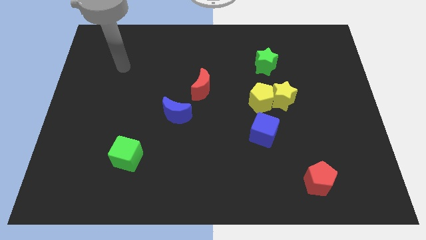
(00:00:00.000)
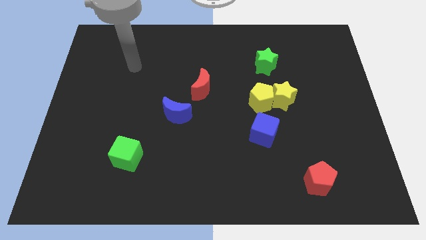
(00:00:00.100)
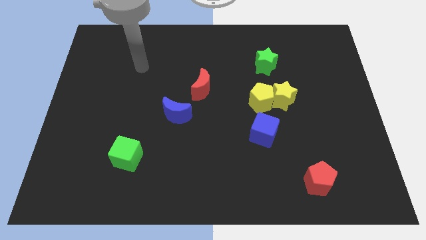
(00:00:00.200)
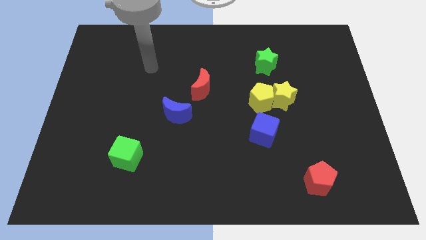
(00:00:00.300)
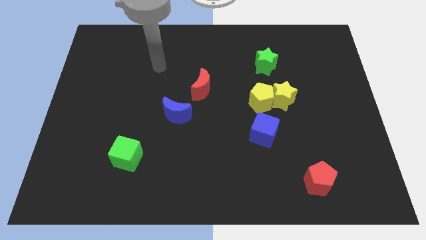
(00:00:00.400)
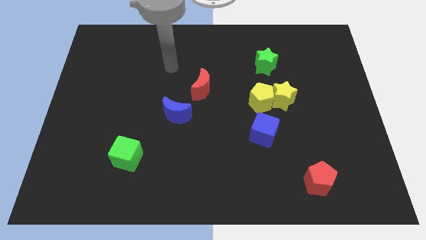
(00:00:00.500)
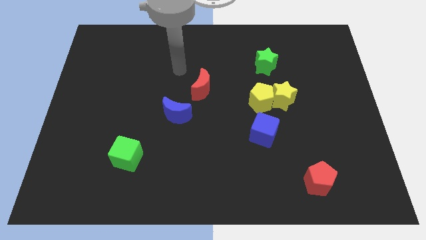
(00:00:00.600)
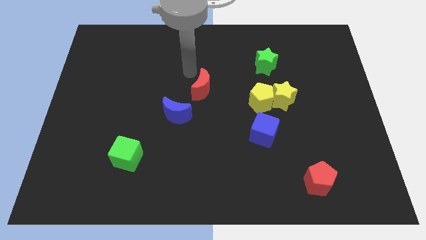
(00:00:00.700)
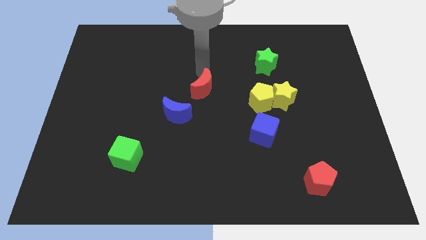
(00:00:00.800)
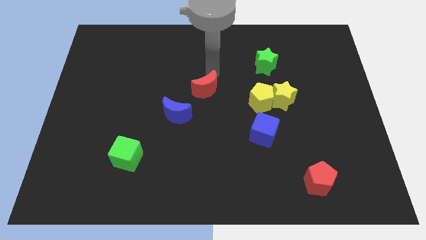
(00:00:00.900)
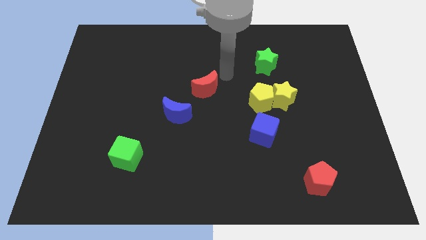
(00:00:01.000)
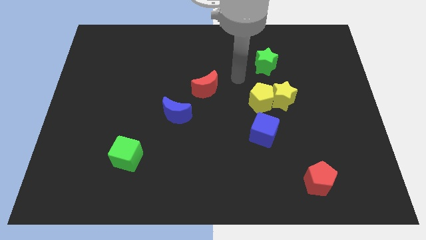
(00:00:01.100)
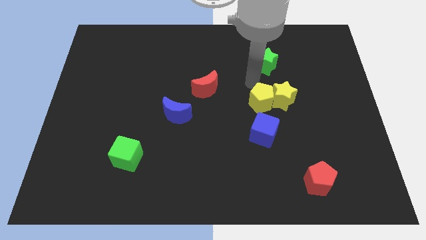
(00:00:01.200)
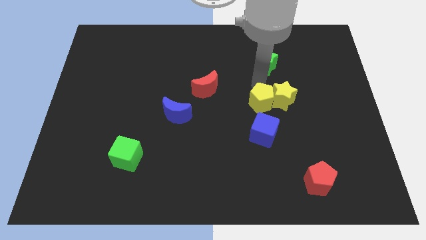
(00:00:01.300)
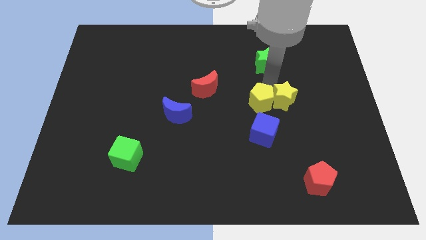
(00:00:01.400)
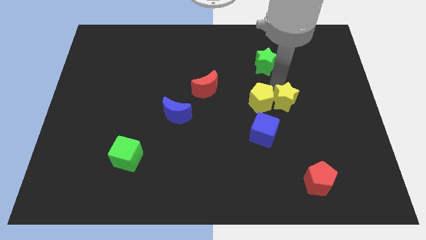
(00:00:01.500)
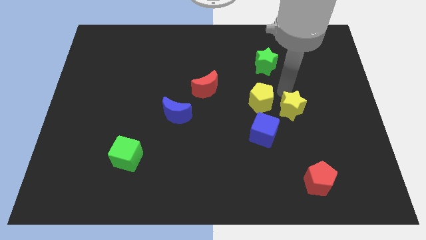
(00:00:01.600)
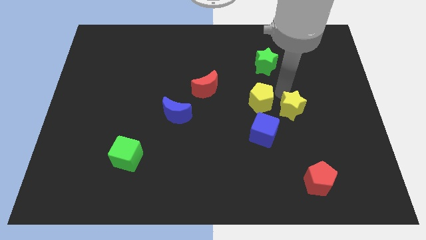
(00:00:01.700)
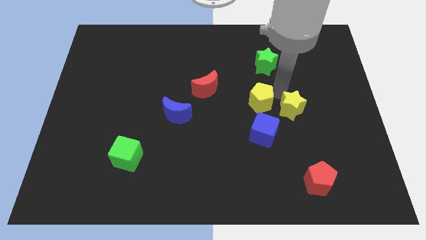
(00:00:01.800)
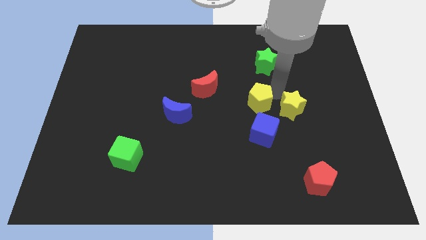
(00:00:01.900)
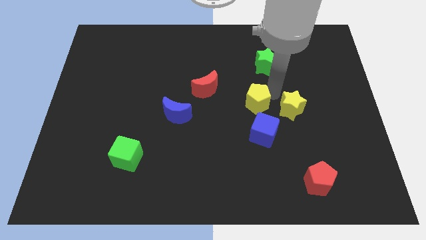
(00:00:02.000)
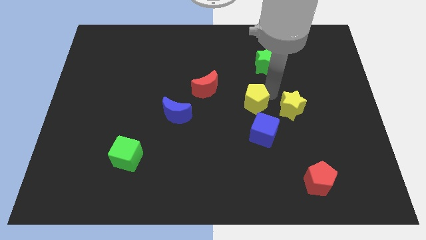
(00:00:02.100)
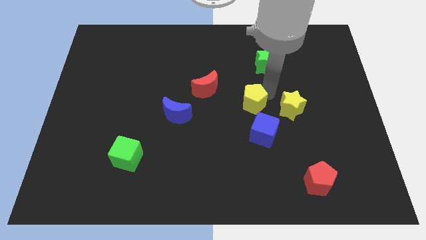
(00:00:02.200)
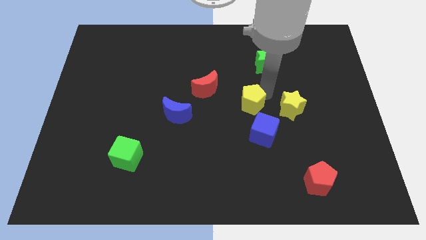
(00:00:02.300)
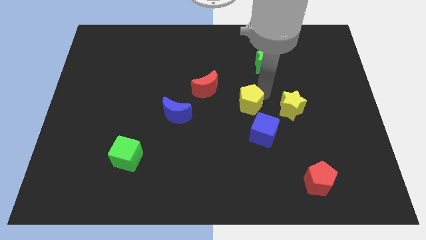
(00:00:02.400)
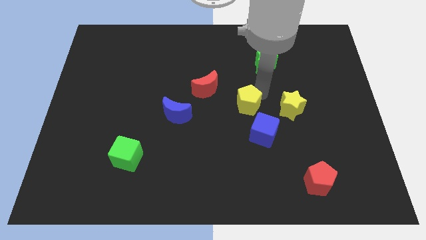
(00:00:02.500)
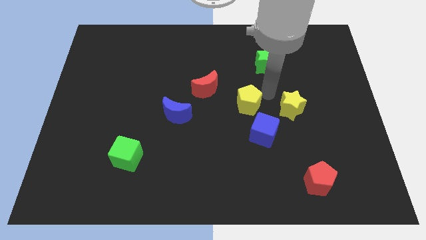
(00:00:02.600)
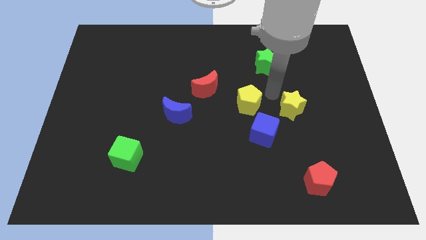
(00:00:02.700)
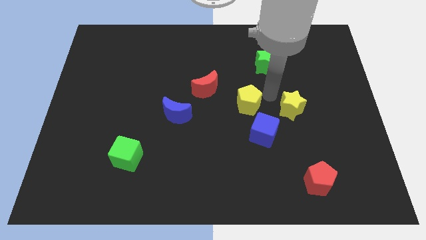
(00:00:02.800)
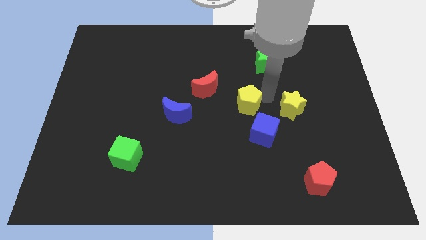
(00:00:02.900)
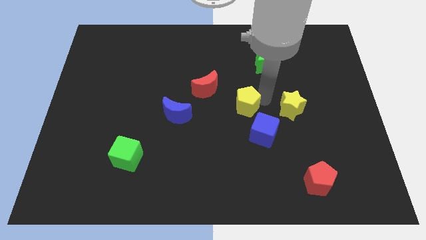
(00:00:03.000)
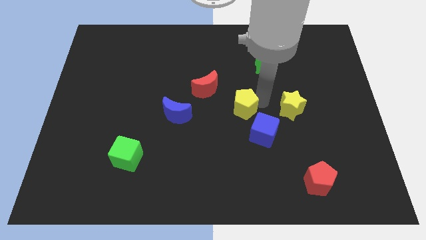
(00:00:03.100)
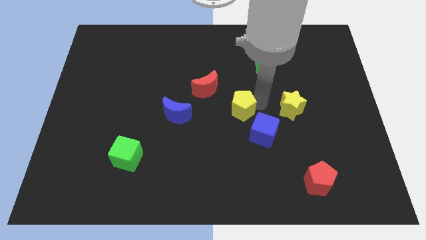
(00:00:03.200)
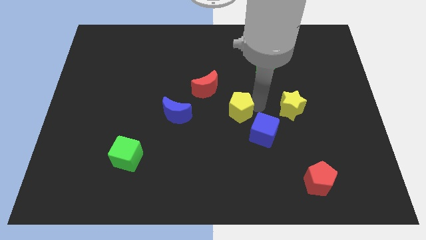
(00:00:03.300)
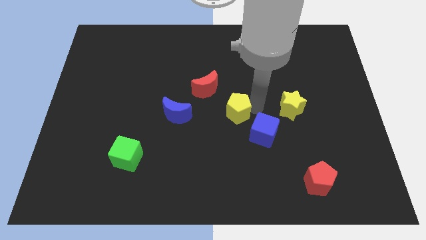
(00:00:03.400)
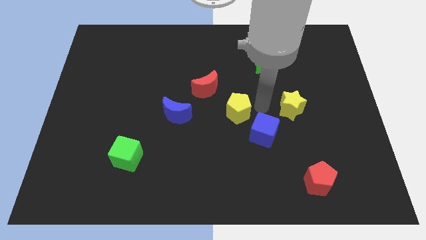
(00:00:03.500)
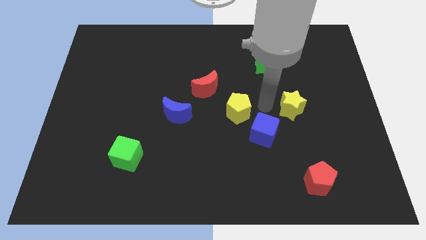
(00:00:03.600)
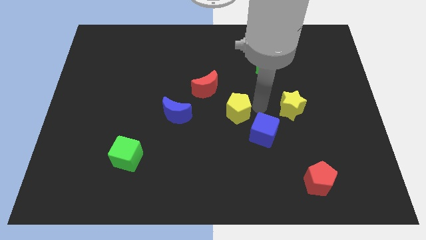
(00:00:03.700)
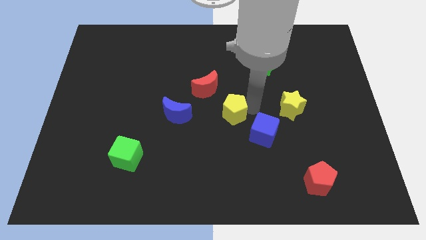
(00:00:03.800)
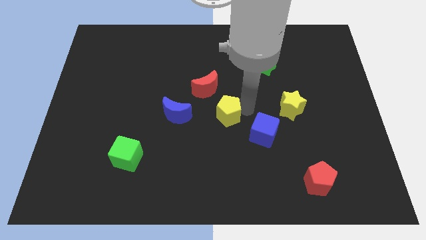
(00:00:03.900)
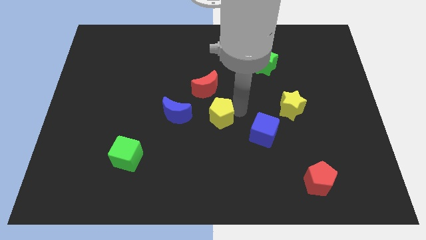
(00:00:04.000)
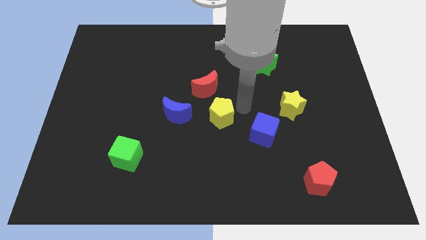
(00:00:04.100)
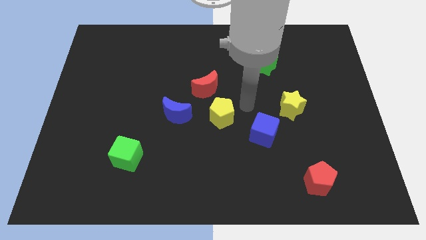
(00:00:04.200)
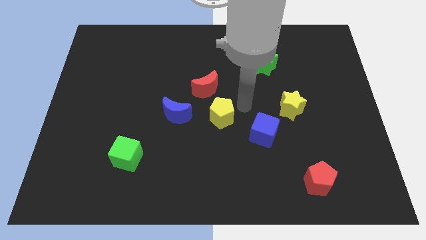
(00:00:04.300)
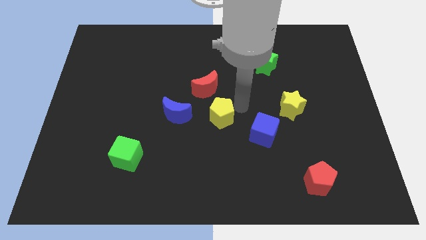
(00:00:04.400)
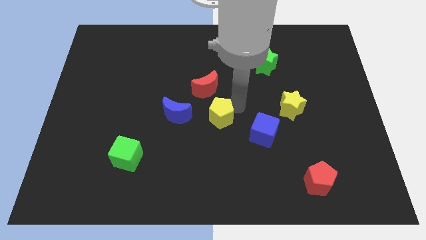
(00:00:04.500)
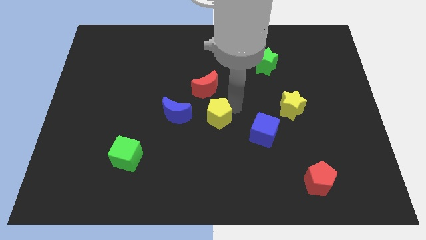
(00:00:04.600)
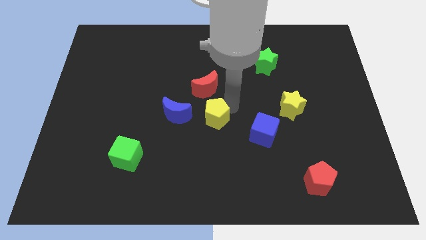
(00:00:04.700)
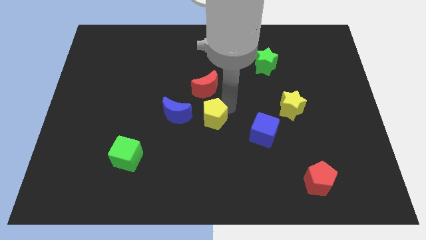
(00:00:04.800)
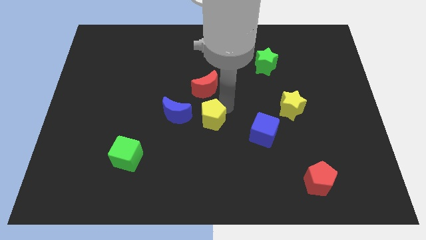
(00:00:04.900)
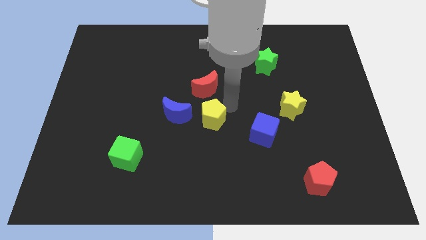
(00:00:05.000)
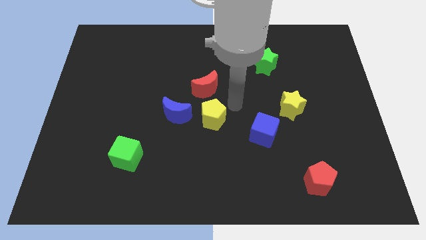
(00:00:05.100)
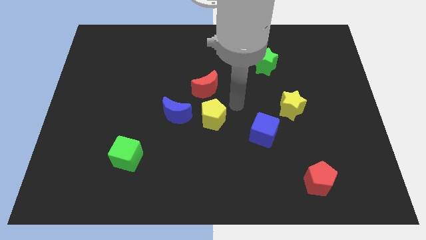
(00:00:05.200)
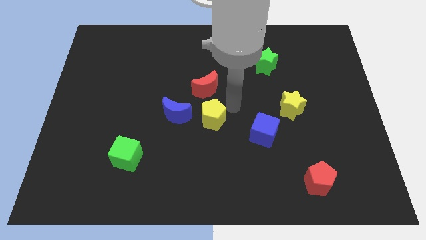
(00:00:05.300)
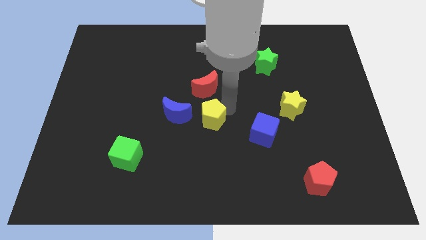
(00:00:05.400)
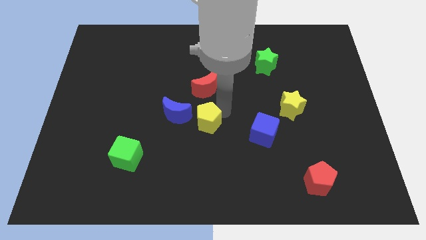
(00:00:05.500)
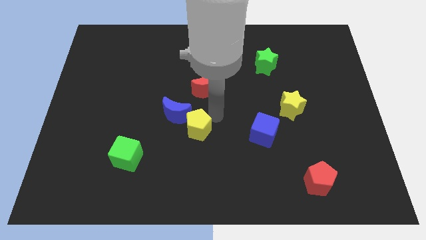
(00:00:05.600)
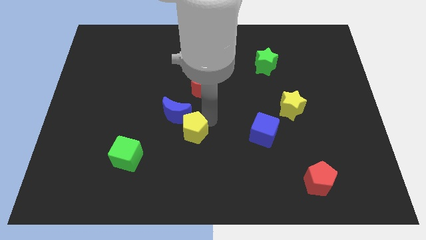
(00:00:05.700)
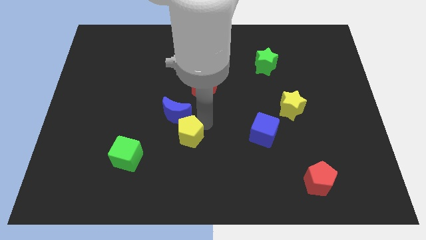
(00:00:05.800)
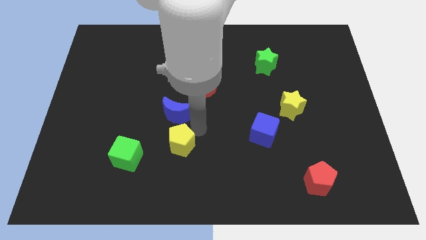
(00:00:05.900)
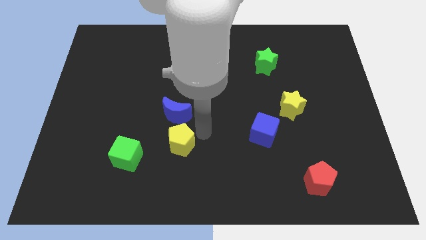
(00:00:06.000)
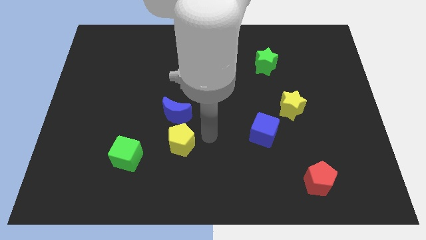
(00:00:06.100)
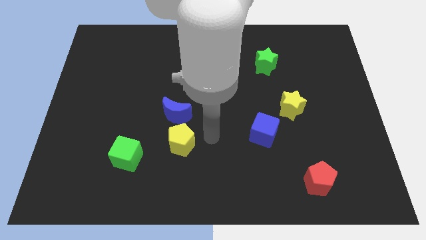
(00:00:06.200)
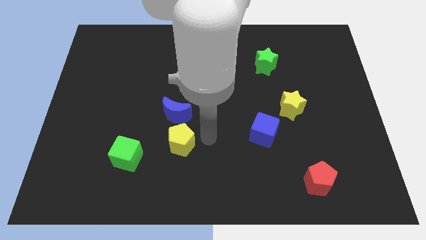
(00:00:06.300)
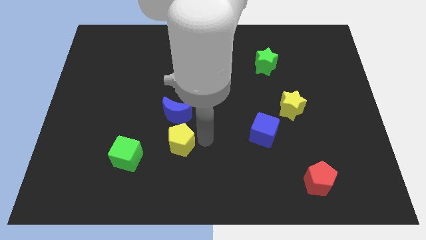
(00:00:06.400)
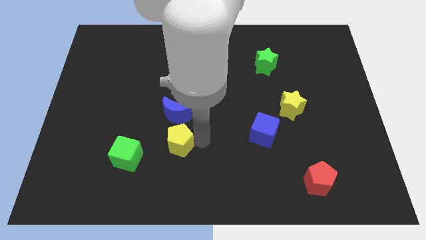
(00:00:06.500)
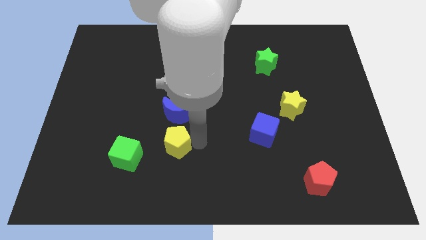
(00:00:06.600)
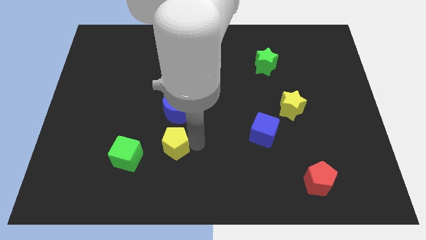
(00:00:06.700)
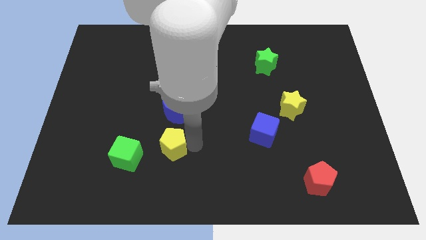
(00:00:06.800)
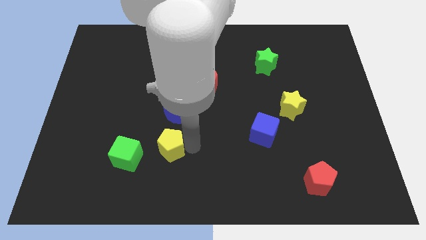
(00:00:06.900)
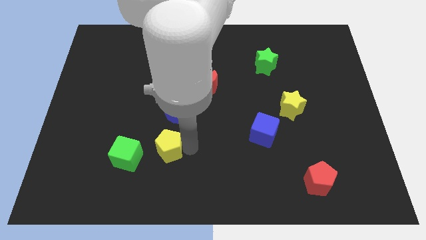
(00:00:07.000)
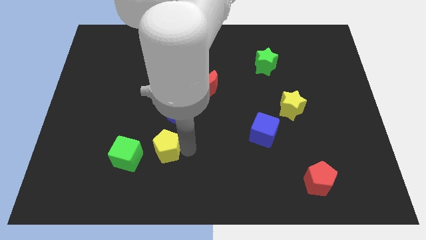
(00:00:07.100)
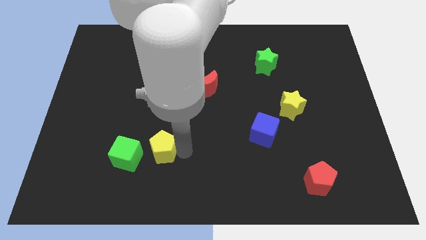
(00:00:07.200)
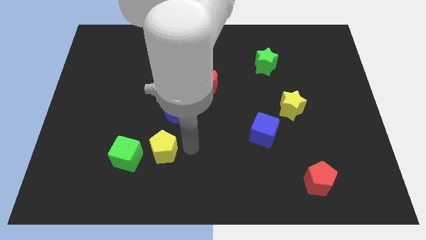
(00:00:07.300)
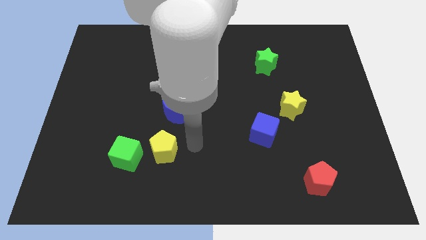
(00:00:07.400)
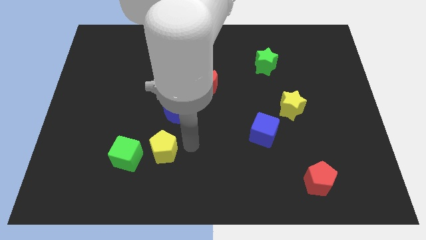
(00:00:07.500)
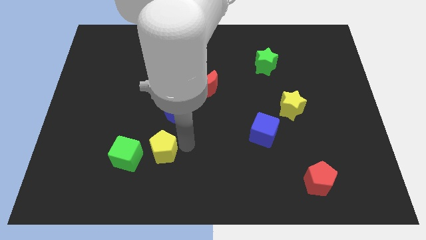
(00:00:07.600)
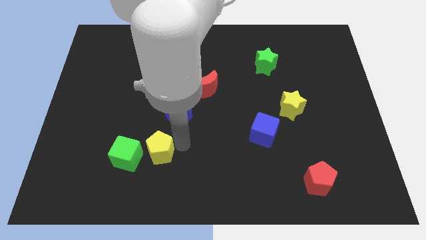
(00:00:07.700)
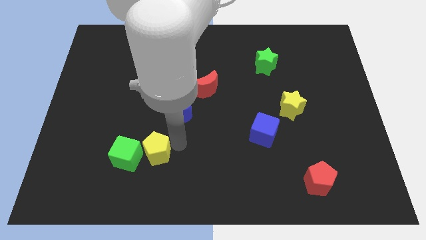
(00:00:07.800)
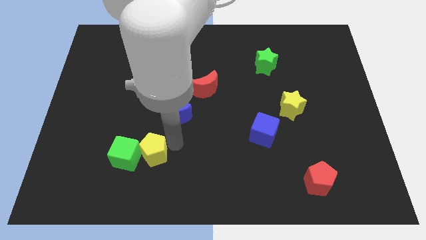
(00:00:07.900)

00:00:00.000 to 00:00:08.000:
slide the yellow pentagon next to the green cube
